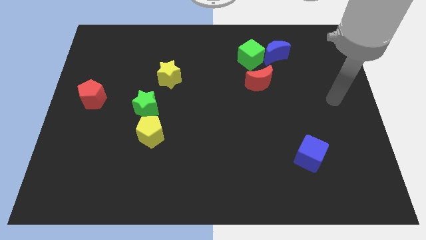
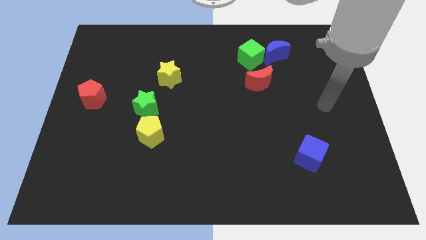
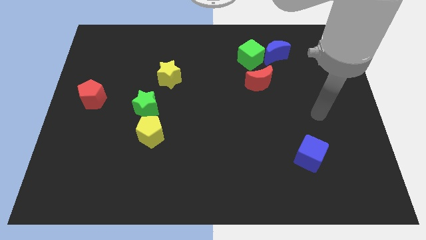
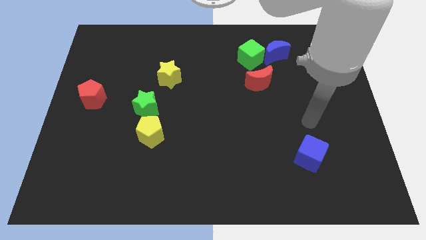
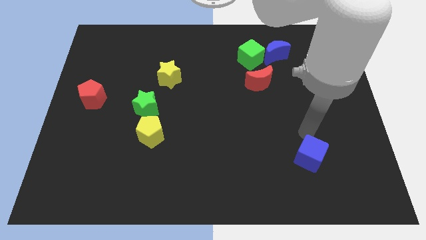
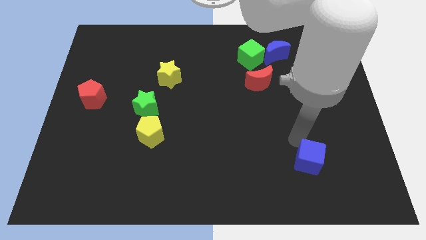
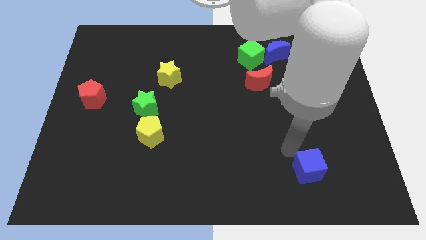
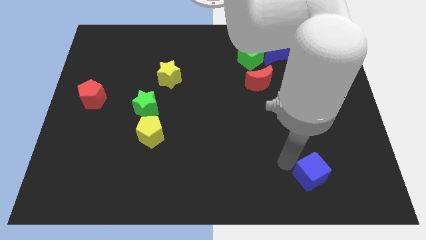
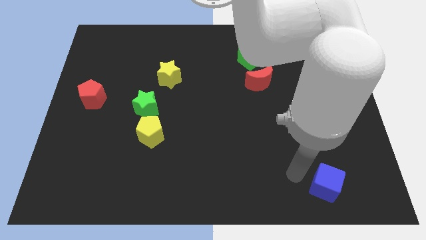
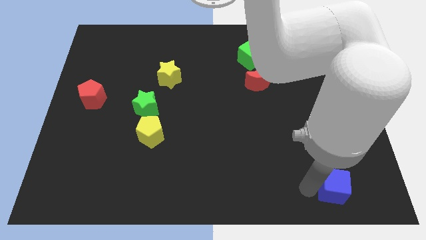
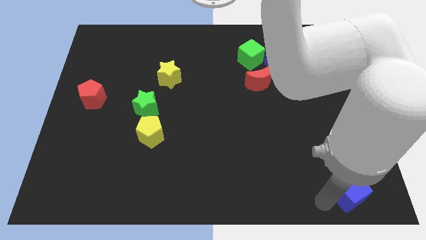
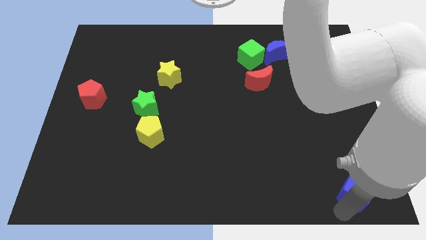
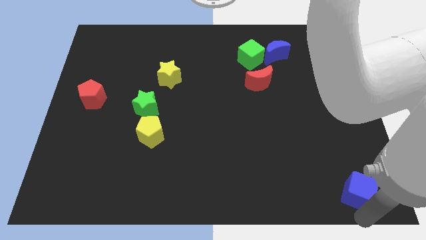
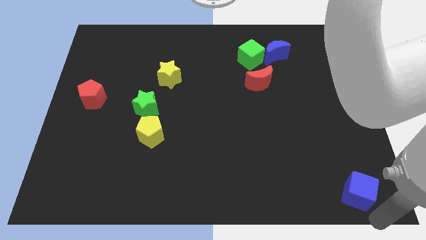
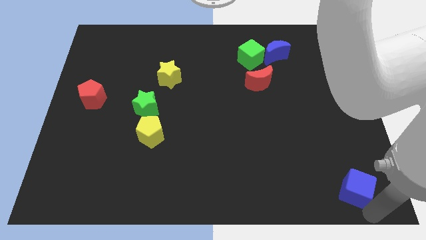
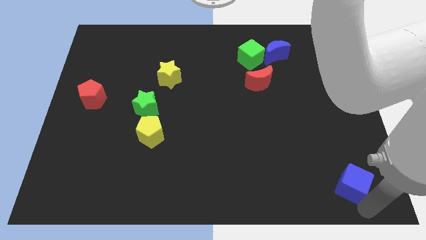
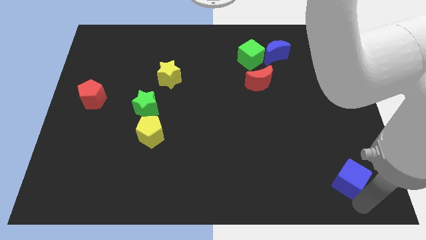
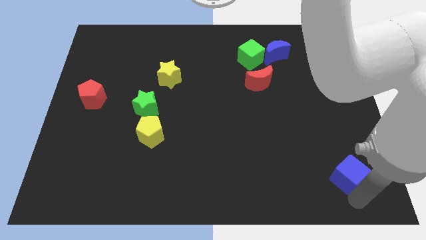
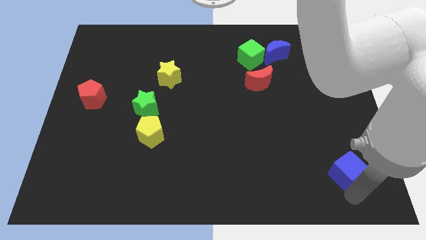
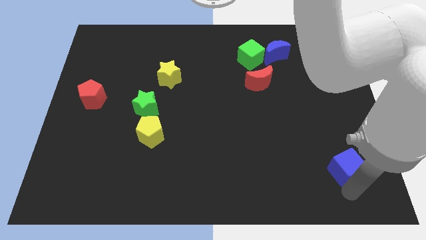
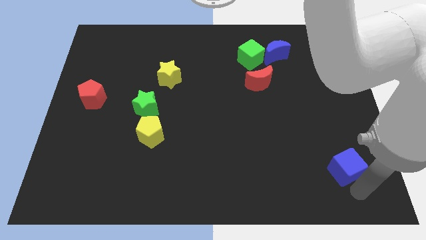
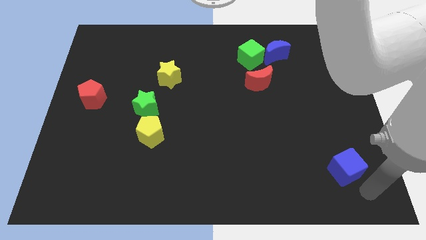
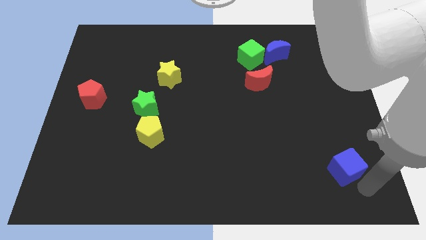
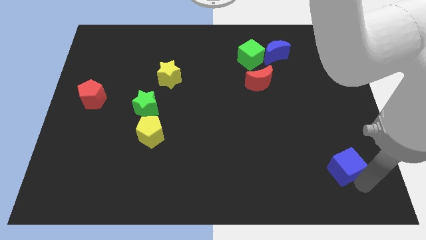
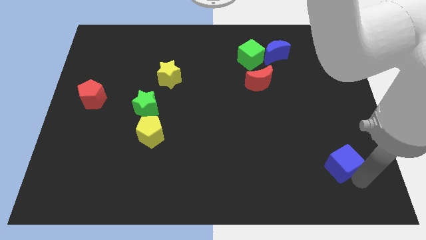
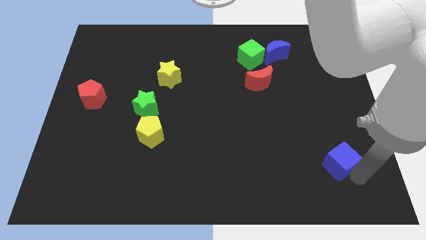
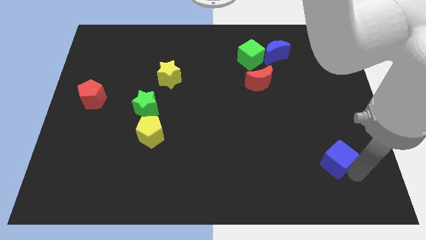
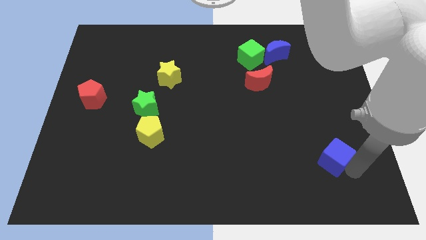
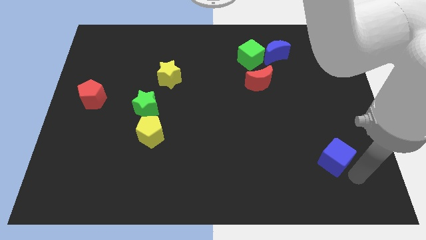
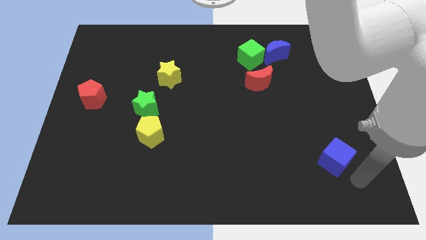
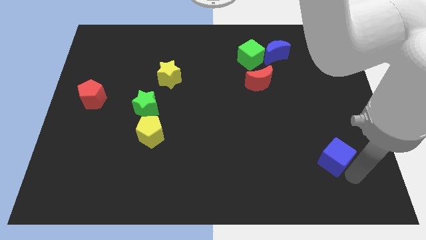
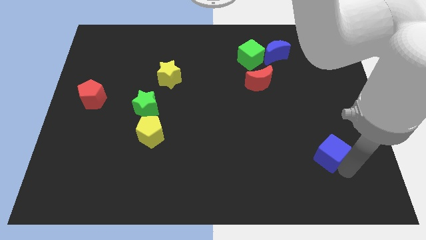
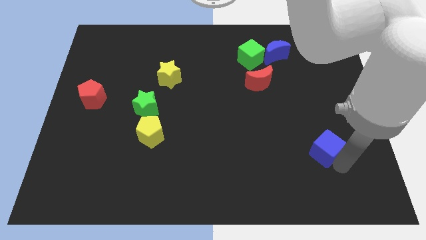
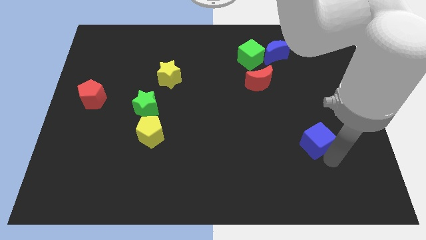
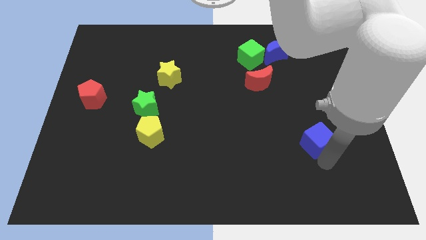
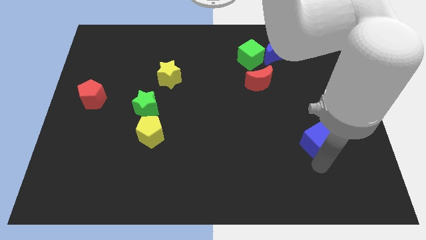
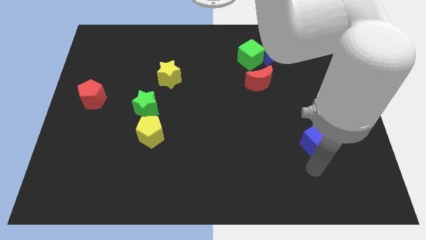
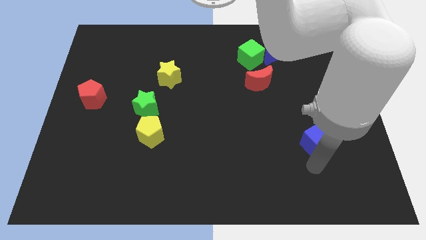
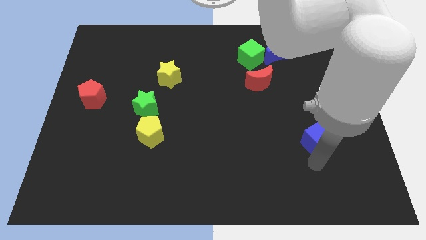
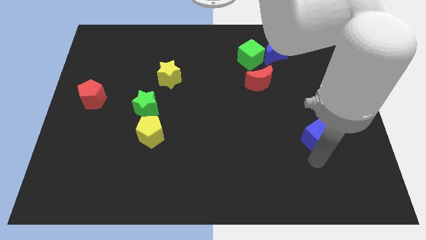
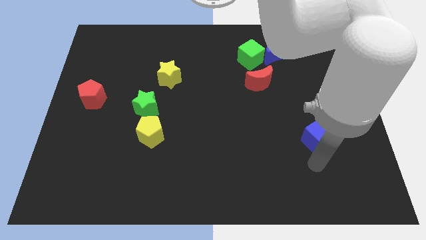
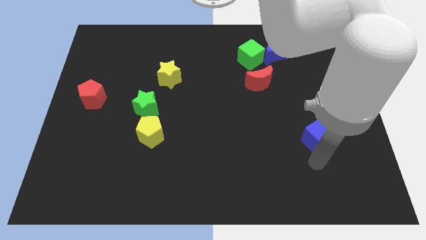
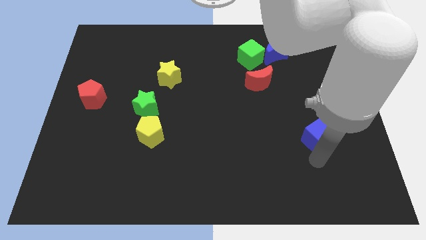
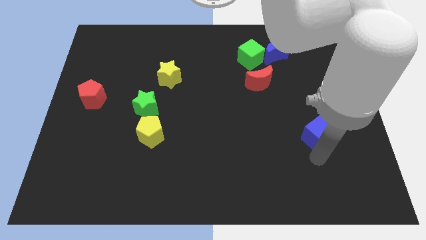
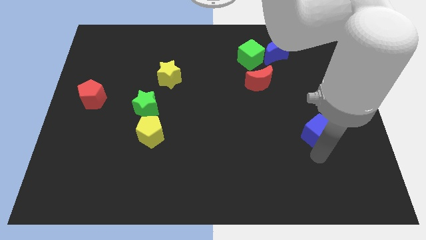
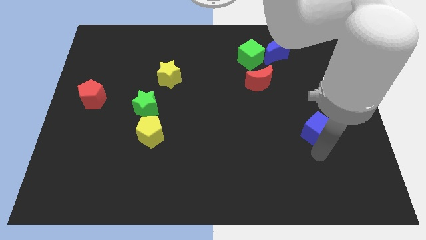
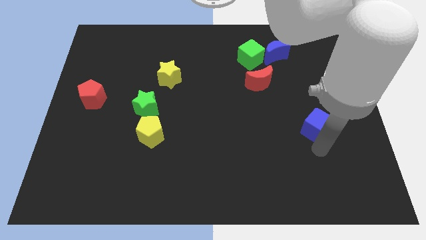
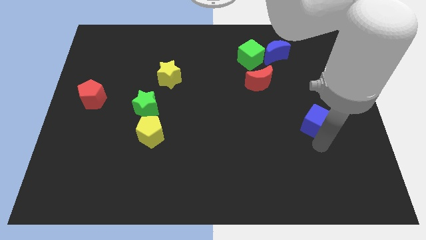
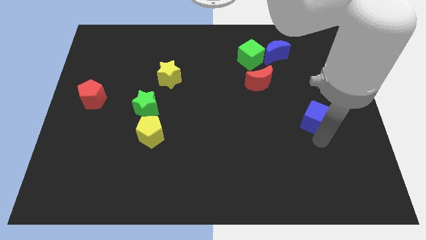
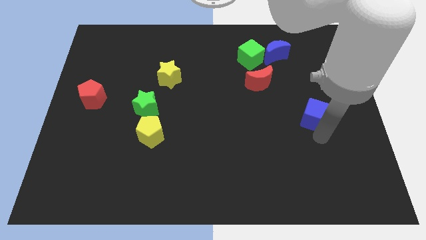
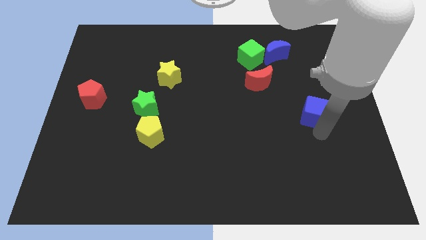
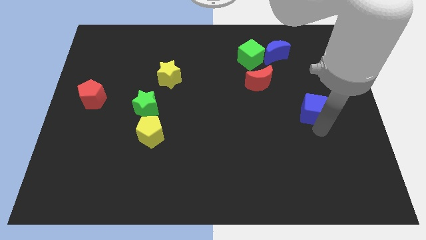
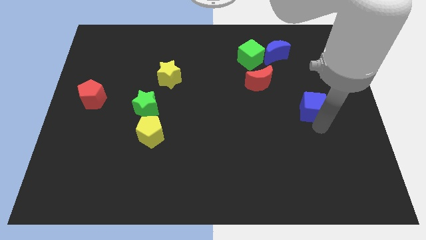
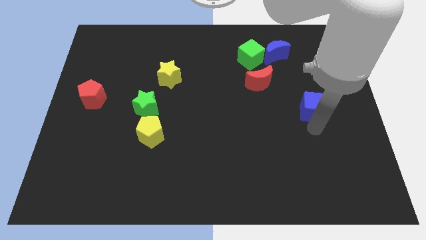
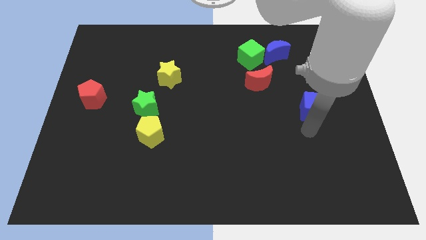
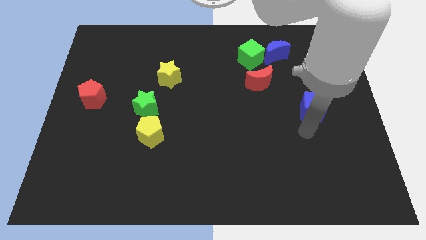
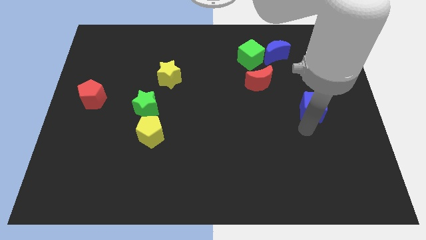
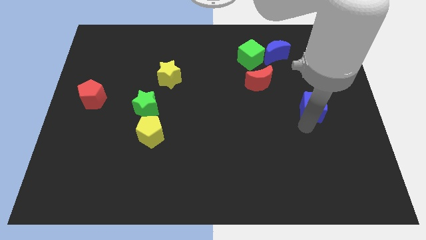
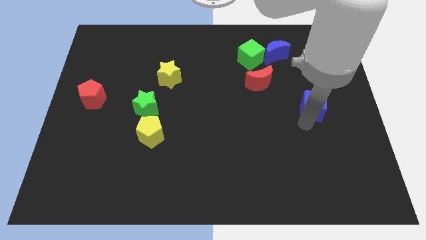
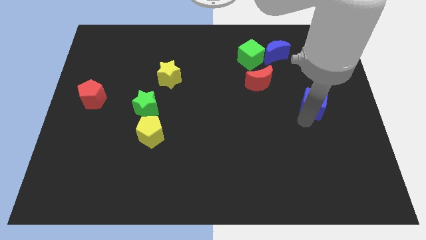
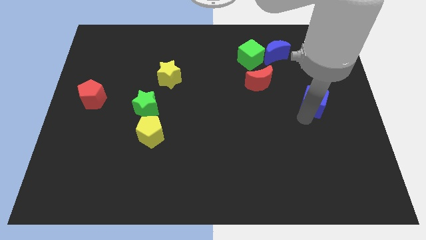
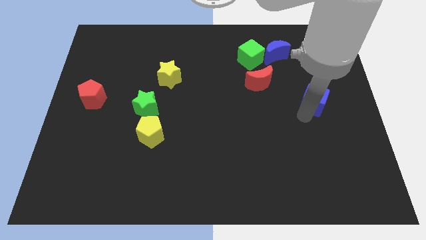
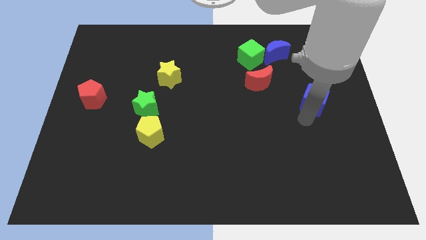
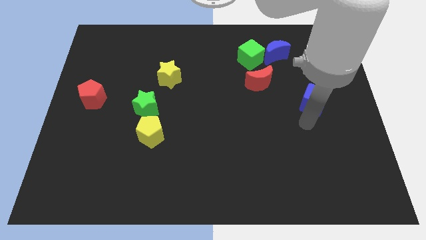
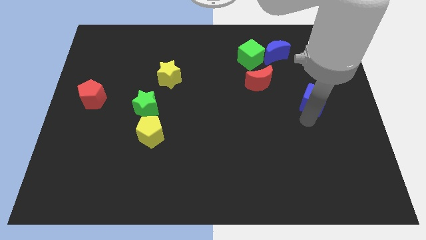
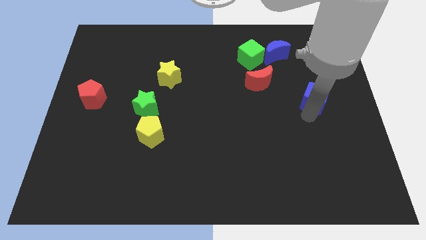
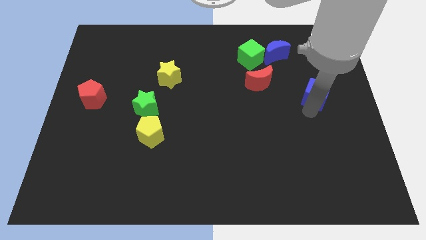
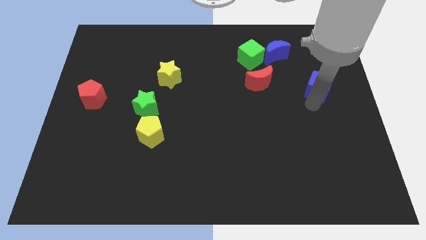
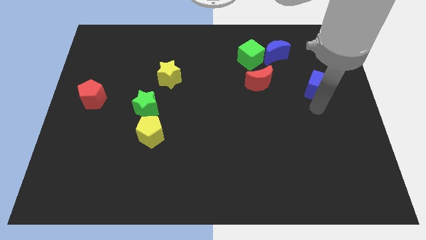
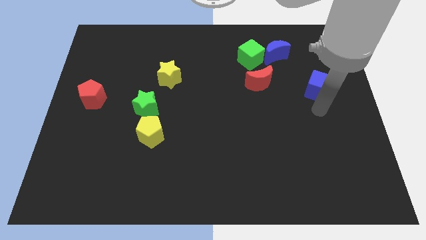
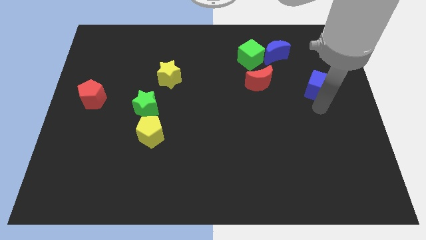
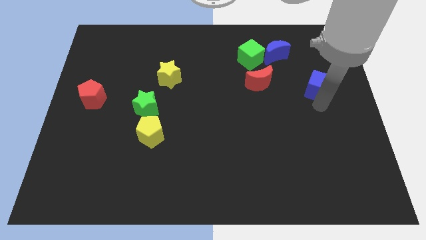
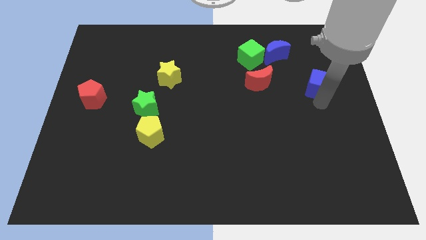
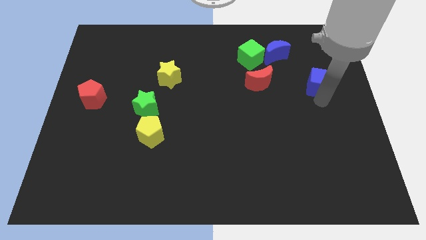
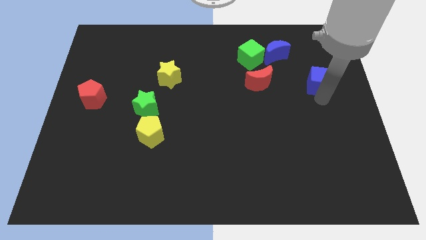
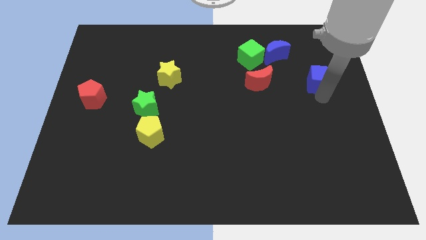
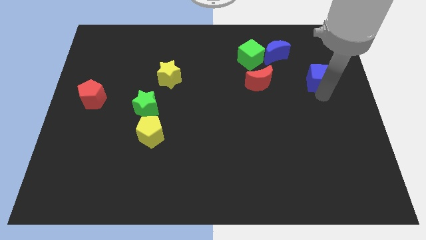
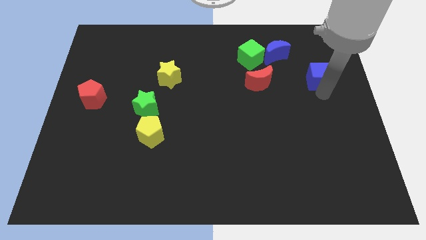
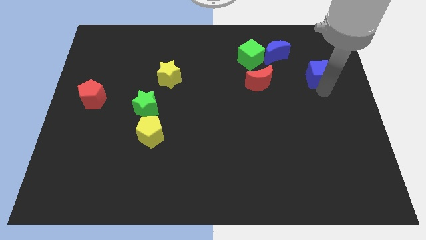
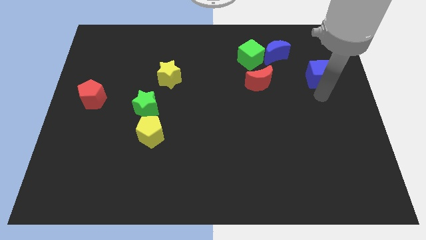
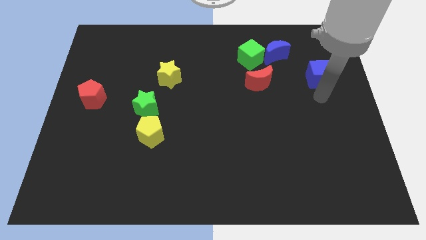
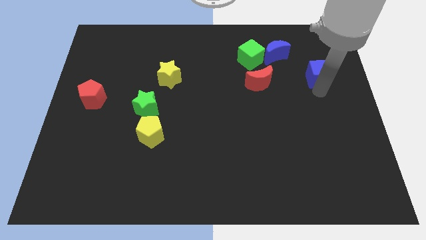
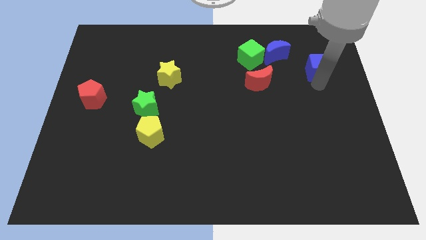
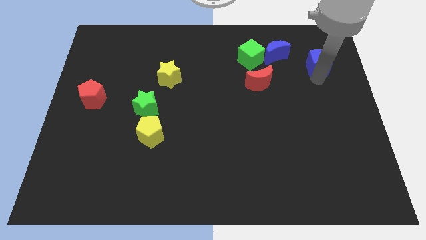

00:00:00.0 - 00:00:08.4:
push the blue cube to the right of the blue moon
